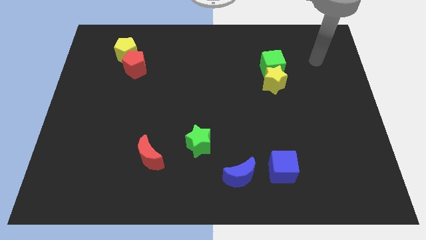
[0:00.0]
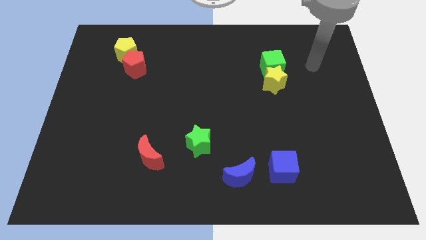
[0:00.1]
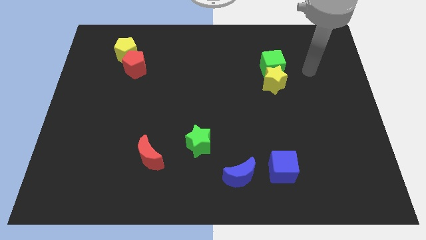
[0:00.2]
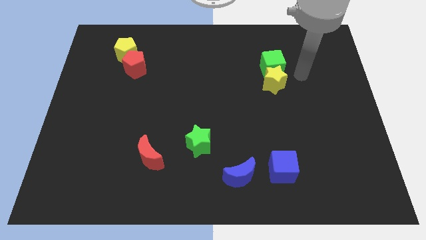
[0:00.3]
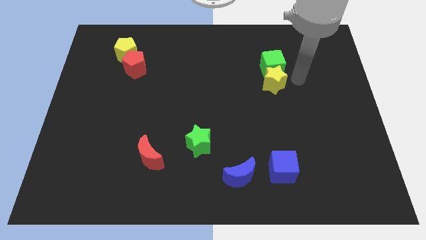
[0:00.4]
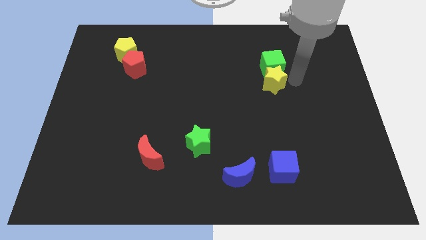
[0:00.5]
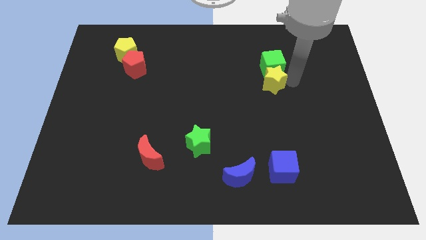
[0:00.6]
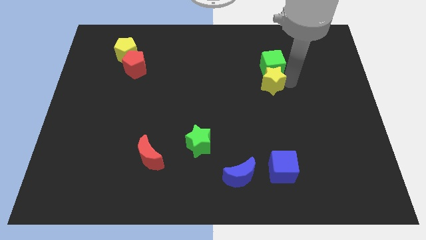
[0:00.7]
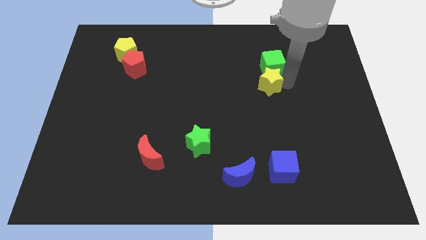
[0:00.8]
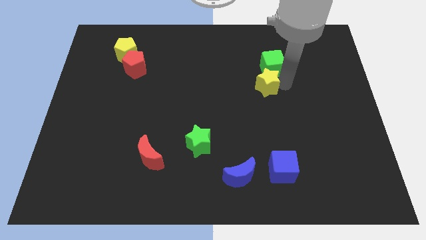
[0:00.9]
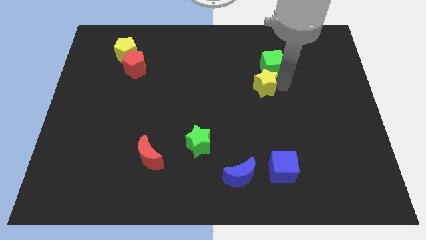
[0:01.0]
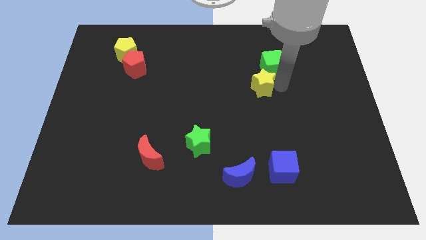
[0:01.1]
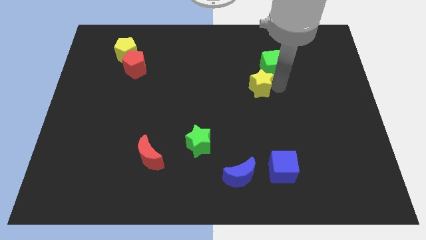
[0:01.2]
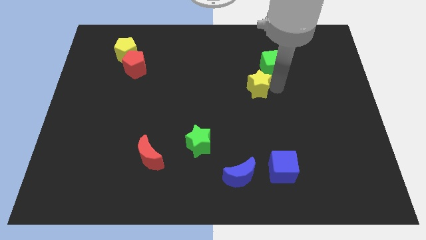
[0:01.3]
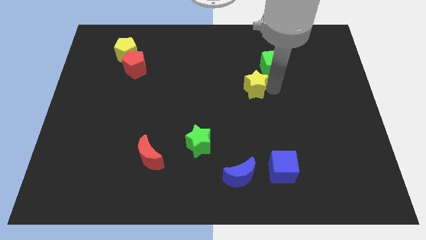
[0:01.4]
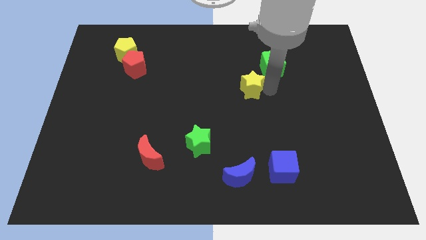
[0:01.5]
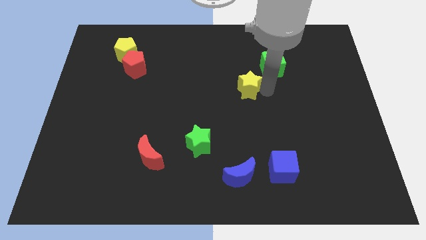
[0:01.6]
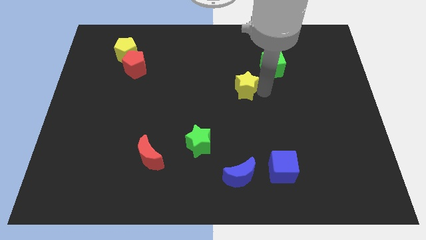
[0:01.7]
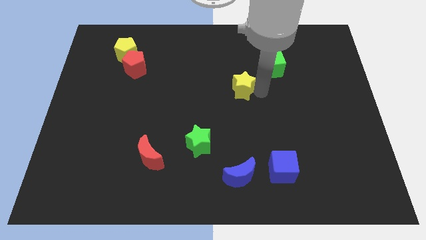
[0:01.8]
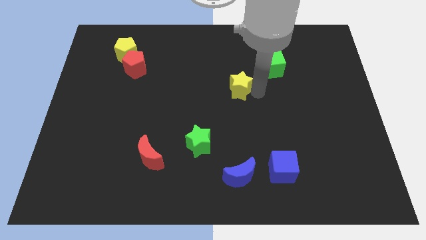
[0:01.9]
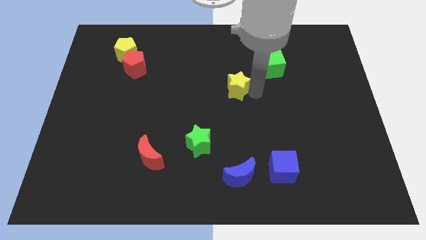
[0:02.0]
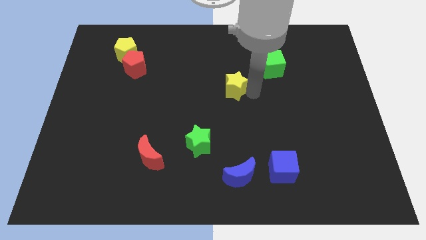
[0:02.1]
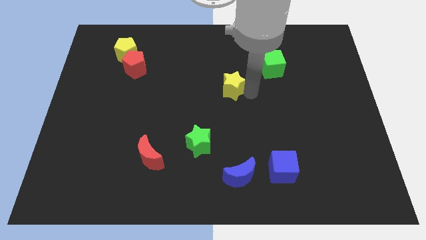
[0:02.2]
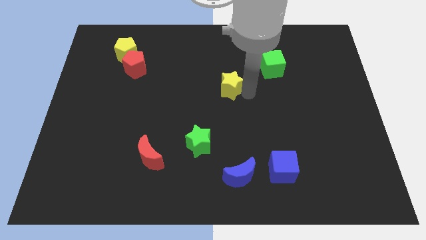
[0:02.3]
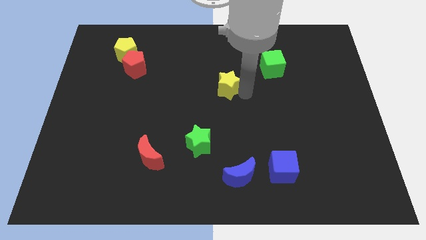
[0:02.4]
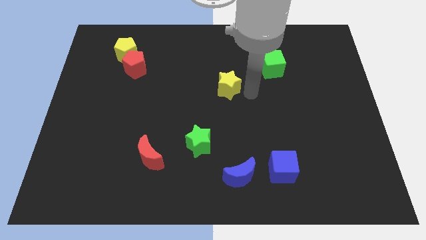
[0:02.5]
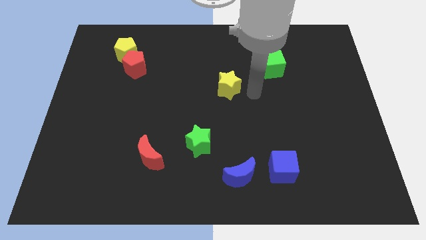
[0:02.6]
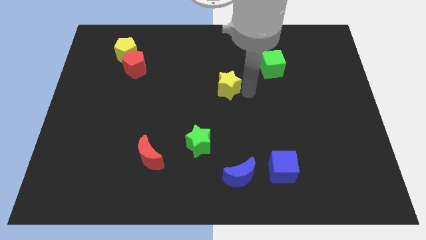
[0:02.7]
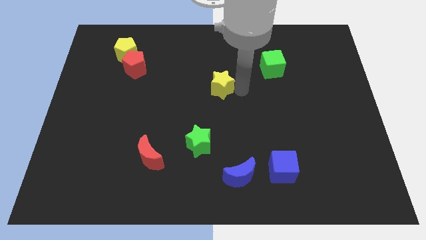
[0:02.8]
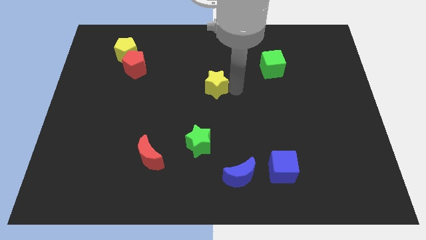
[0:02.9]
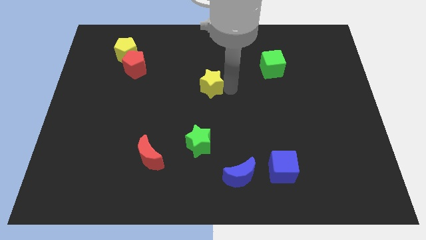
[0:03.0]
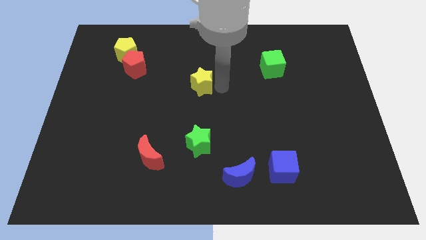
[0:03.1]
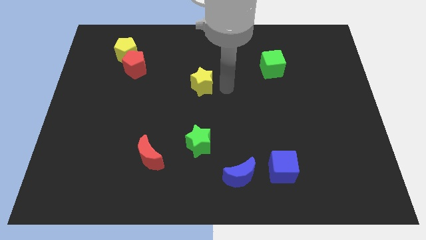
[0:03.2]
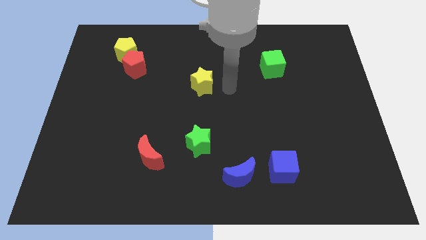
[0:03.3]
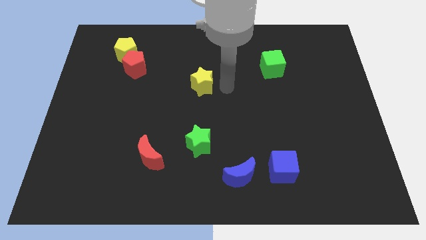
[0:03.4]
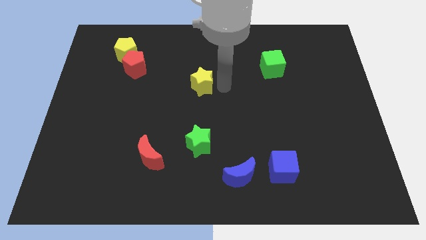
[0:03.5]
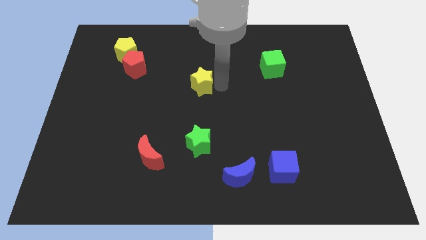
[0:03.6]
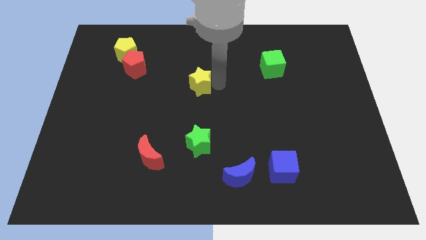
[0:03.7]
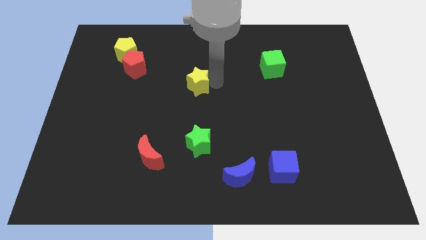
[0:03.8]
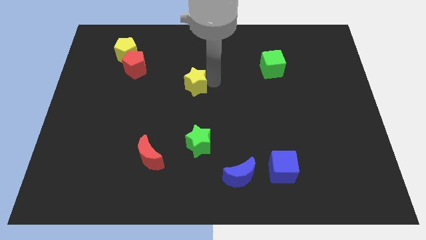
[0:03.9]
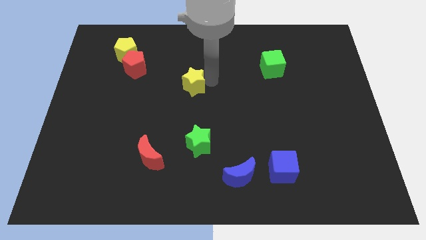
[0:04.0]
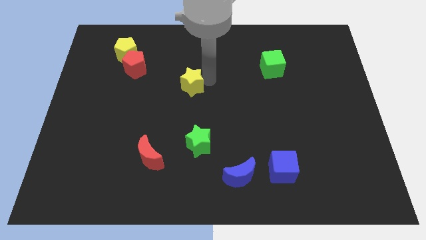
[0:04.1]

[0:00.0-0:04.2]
slide the yellow star to the left

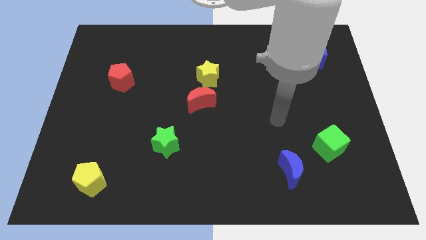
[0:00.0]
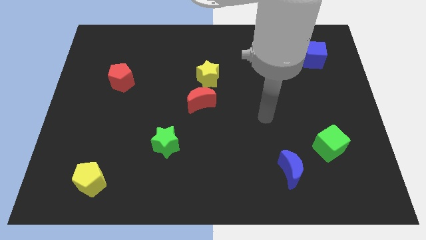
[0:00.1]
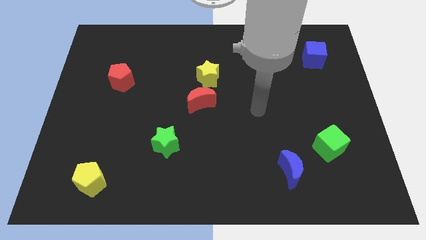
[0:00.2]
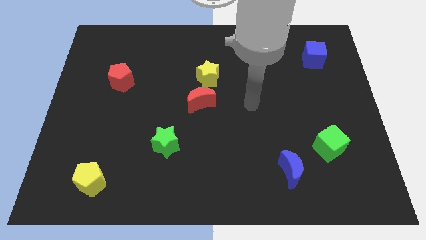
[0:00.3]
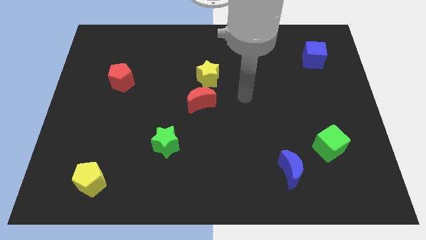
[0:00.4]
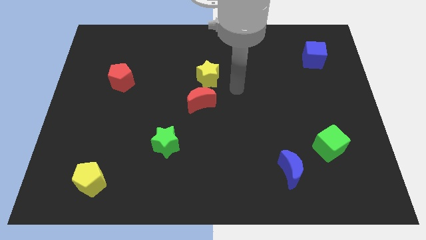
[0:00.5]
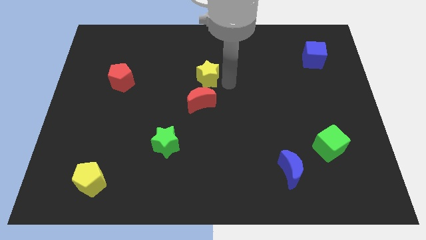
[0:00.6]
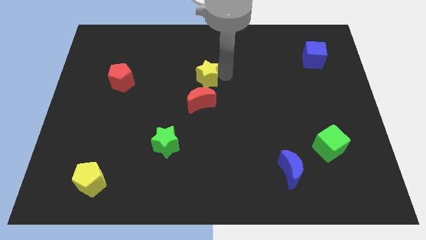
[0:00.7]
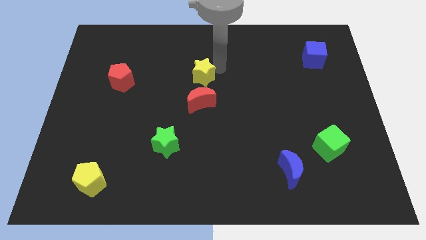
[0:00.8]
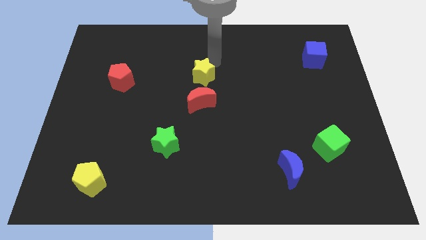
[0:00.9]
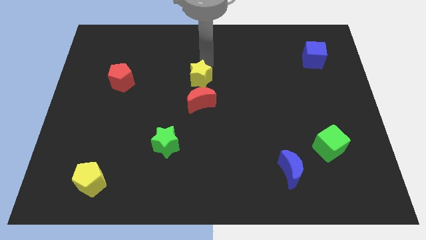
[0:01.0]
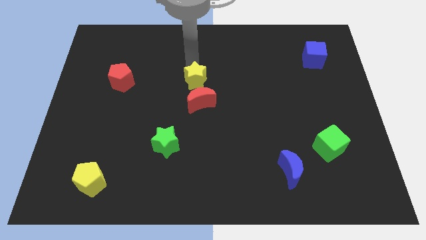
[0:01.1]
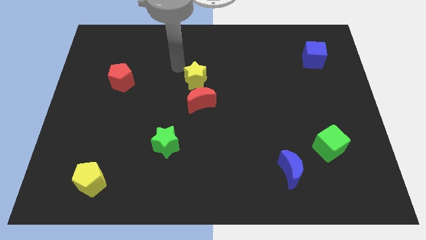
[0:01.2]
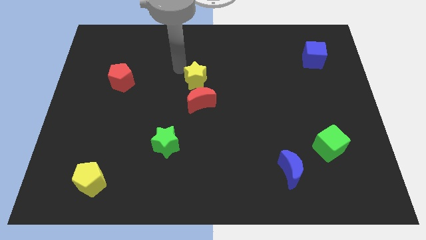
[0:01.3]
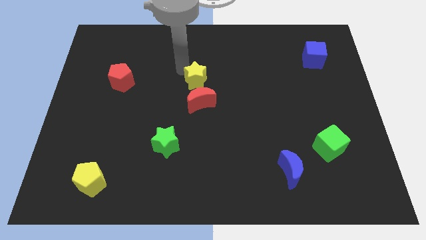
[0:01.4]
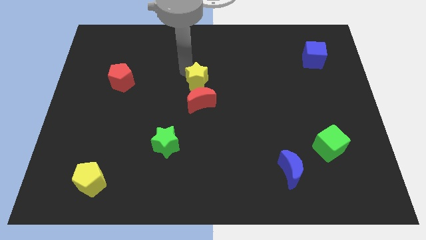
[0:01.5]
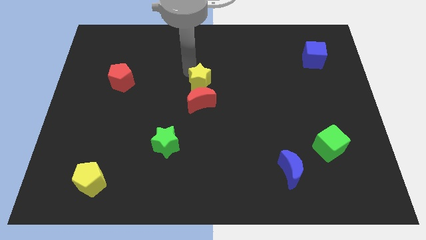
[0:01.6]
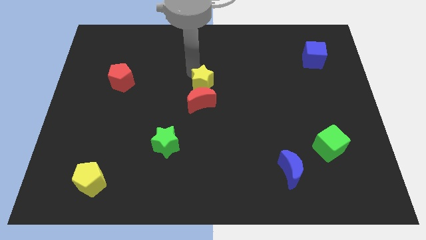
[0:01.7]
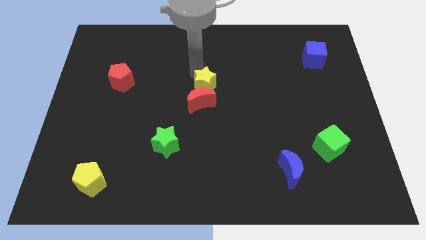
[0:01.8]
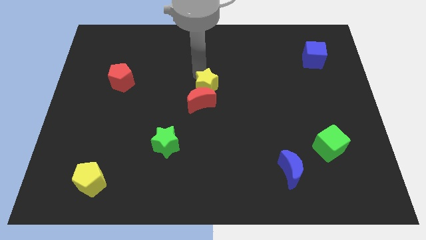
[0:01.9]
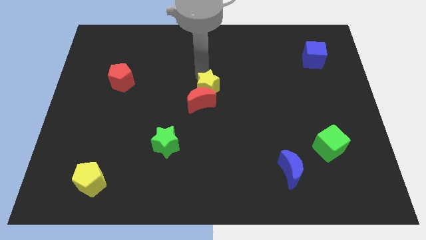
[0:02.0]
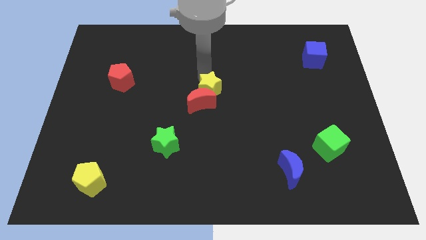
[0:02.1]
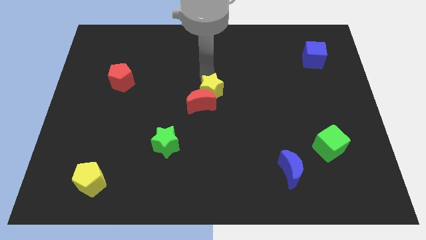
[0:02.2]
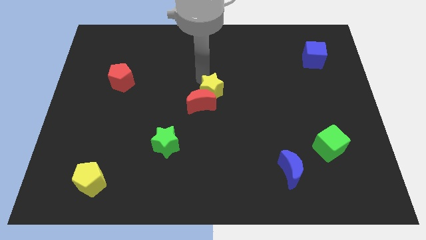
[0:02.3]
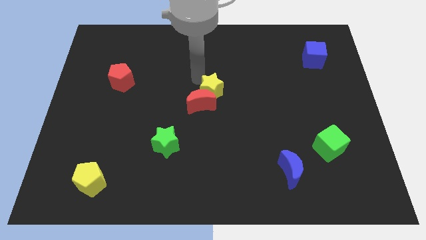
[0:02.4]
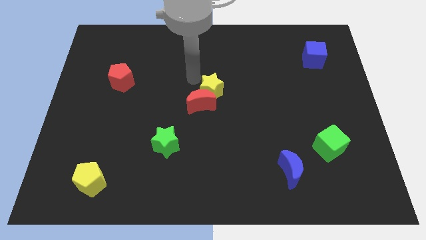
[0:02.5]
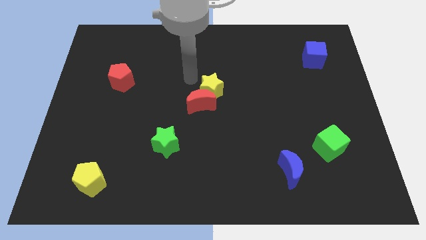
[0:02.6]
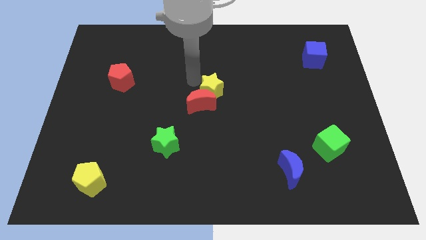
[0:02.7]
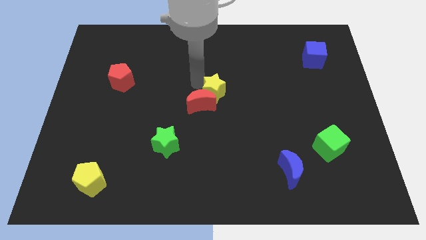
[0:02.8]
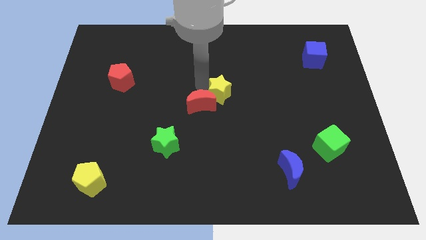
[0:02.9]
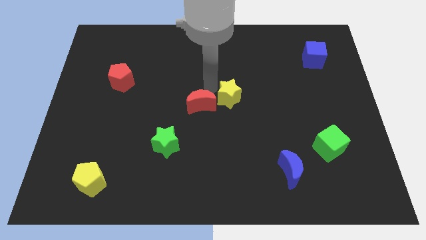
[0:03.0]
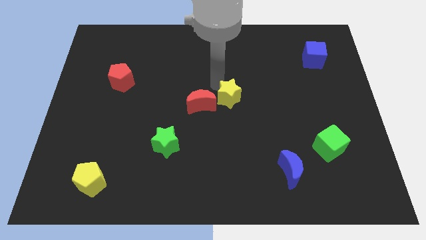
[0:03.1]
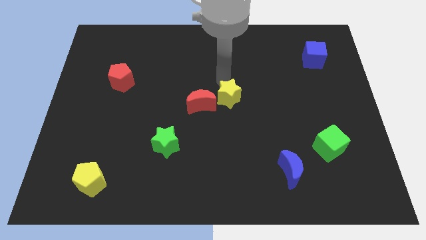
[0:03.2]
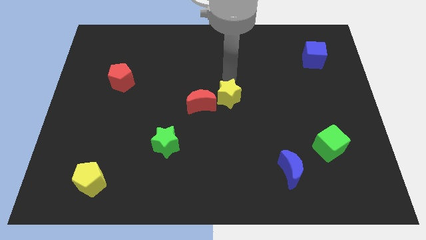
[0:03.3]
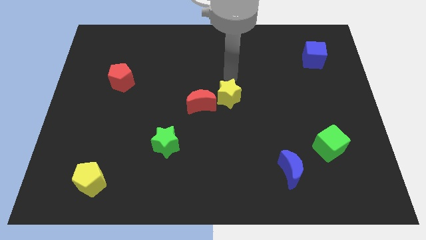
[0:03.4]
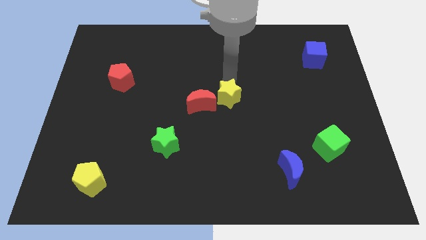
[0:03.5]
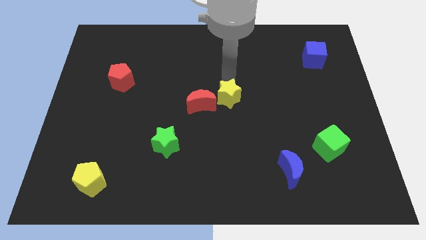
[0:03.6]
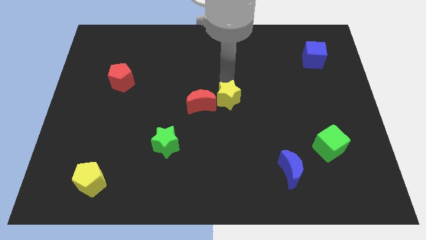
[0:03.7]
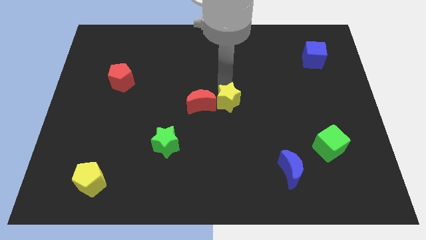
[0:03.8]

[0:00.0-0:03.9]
slightly slide the yellow star down
